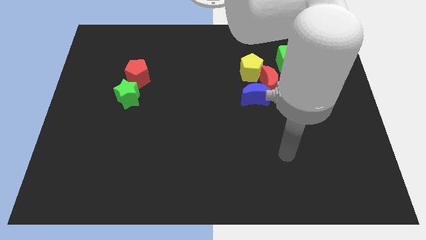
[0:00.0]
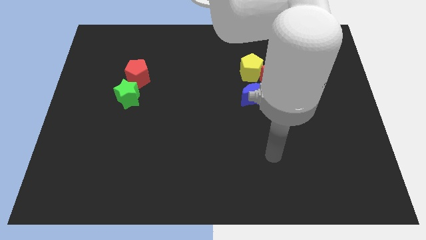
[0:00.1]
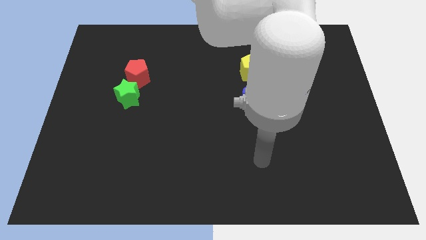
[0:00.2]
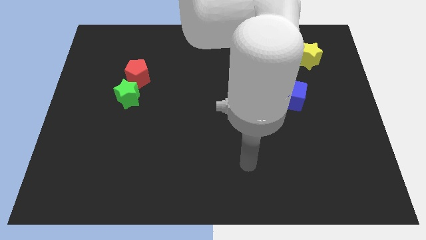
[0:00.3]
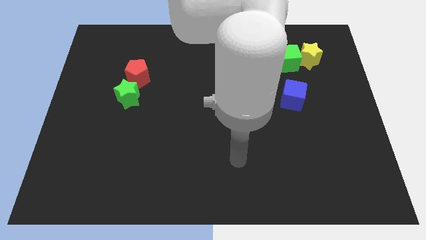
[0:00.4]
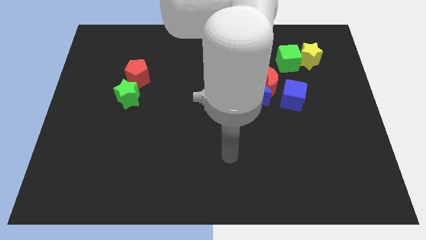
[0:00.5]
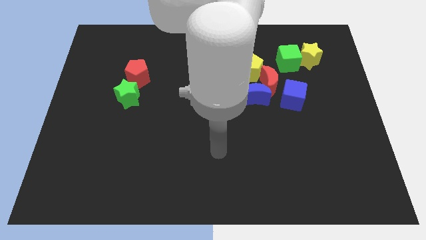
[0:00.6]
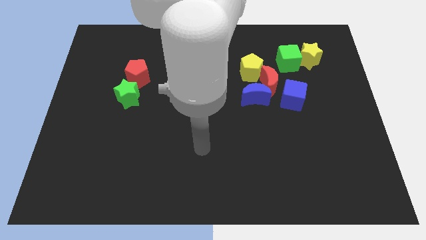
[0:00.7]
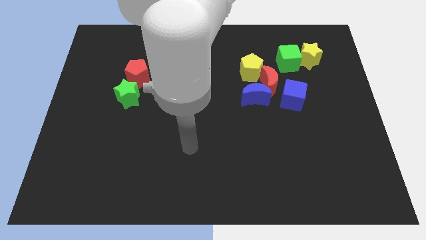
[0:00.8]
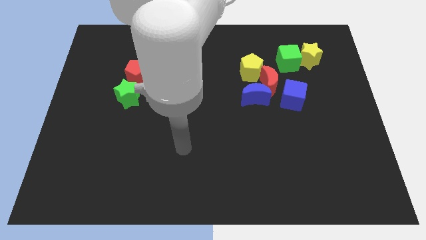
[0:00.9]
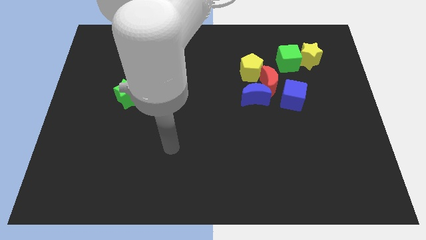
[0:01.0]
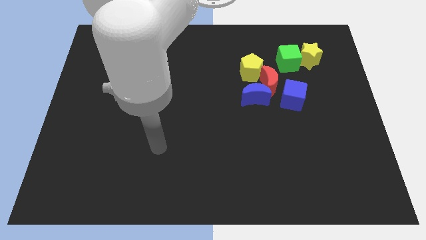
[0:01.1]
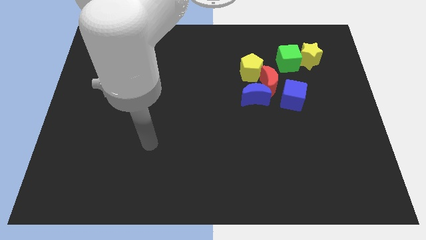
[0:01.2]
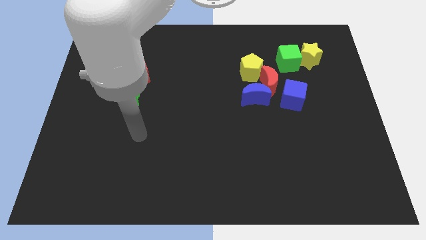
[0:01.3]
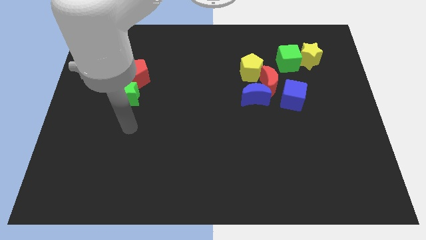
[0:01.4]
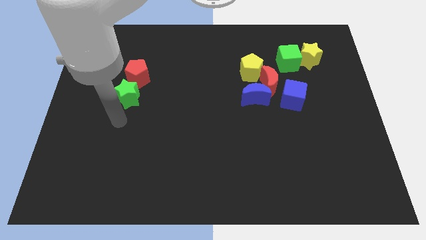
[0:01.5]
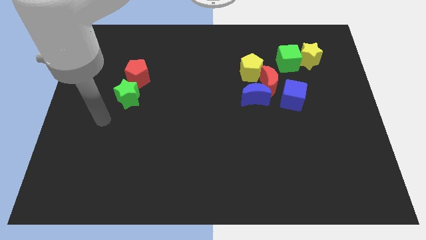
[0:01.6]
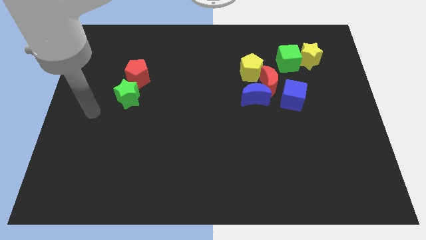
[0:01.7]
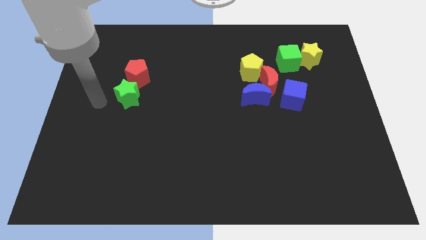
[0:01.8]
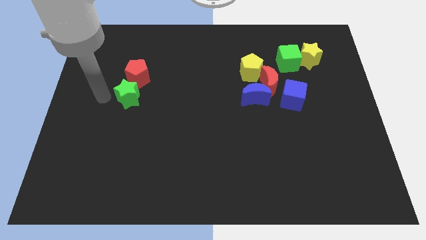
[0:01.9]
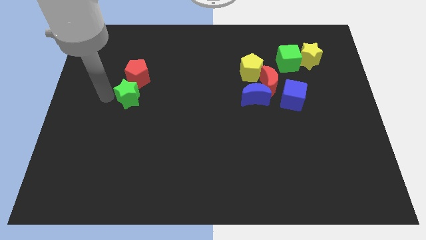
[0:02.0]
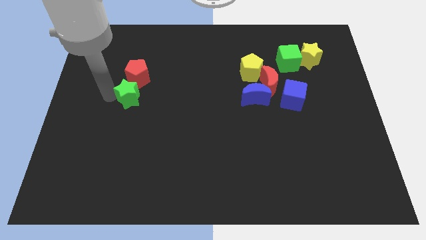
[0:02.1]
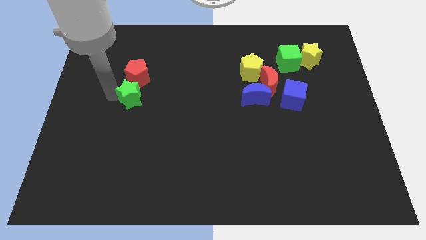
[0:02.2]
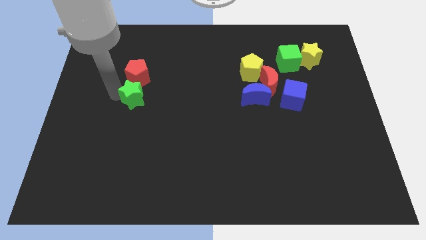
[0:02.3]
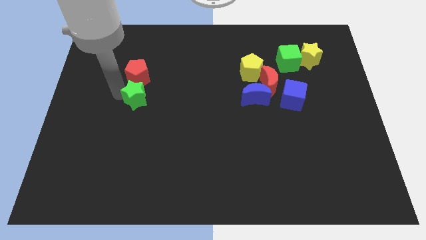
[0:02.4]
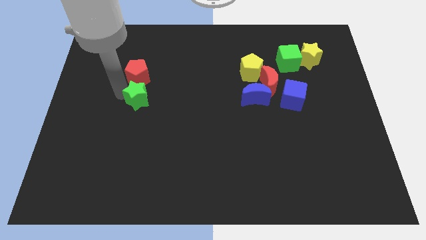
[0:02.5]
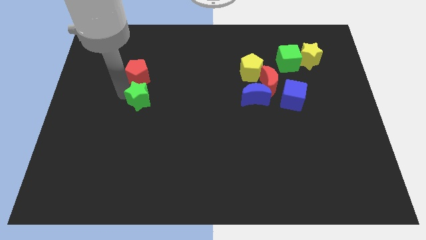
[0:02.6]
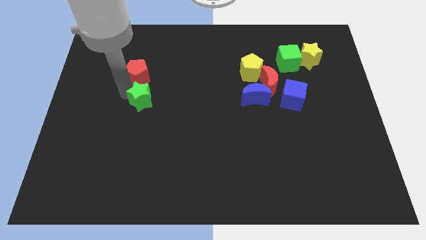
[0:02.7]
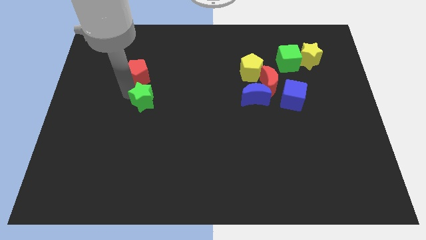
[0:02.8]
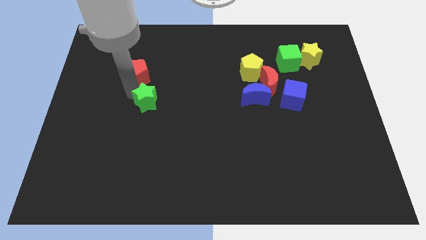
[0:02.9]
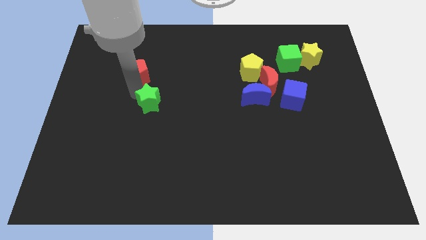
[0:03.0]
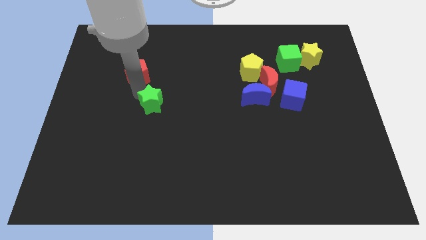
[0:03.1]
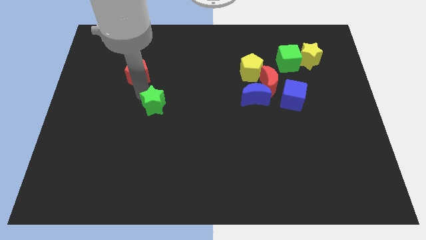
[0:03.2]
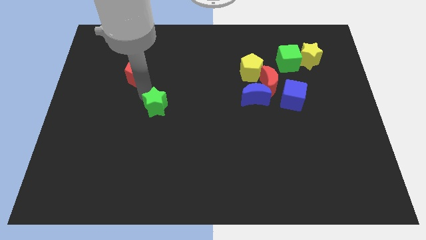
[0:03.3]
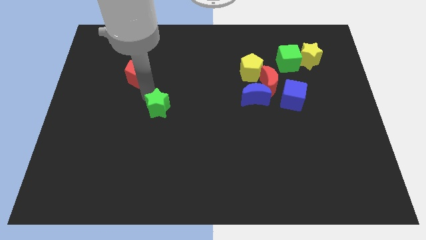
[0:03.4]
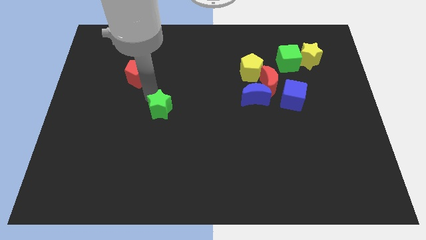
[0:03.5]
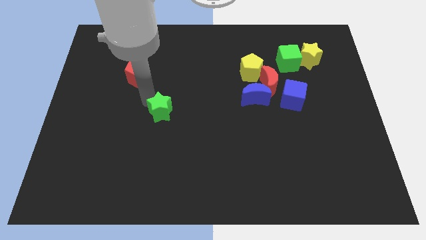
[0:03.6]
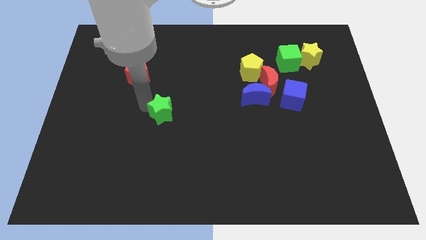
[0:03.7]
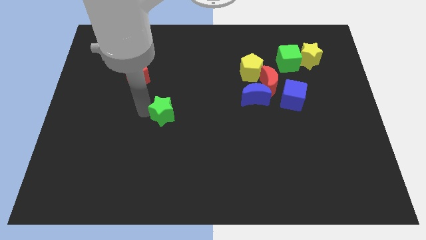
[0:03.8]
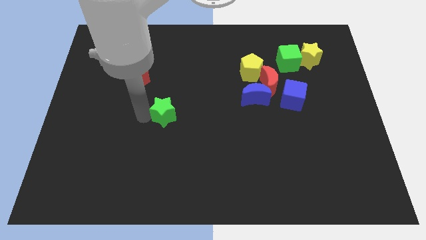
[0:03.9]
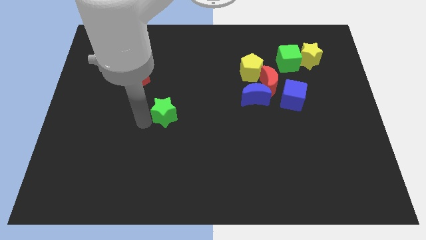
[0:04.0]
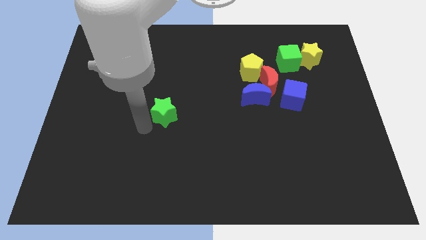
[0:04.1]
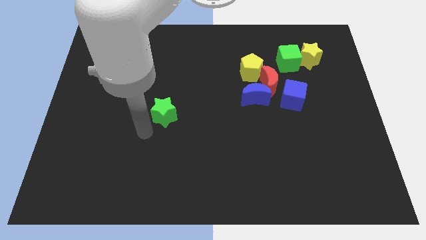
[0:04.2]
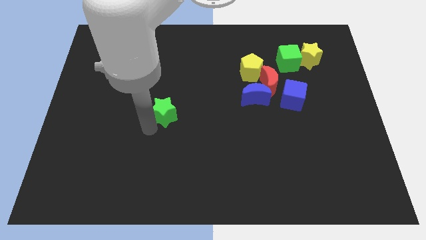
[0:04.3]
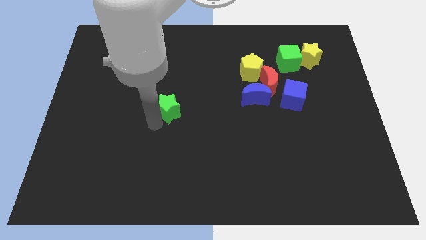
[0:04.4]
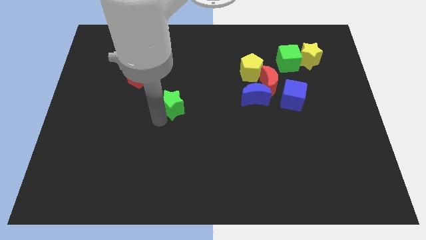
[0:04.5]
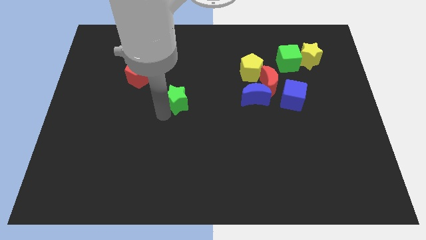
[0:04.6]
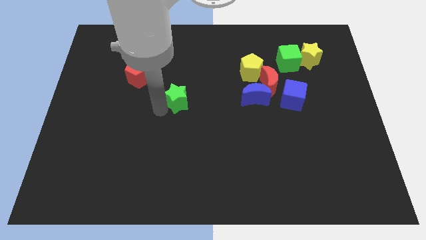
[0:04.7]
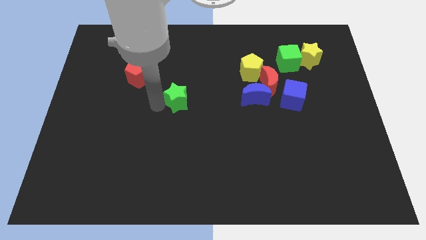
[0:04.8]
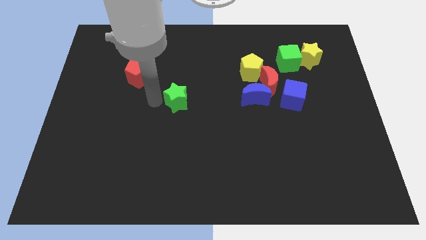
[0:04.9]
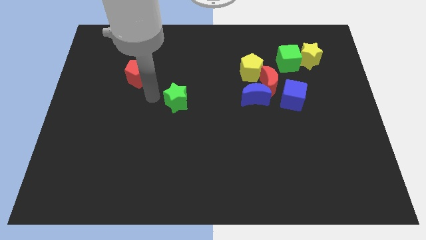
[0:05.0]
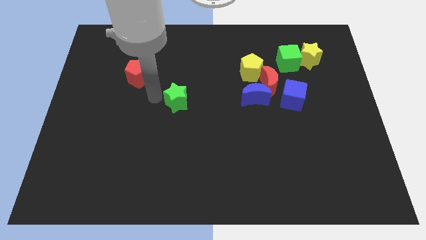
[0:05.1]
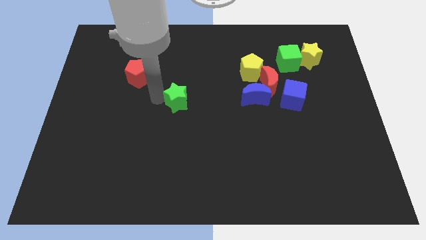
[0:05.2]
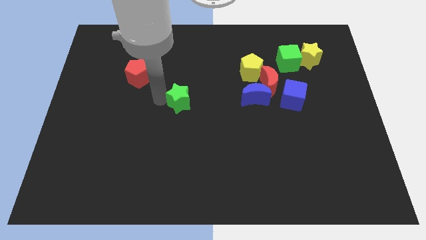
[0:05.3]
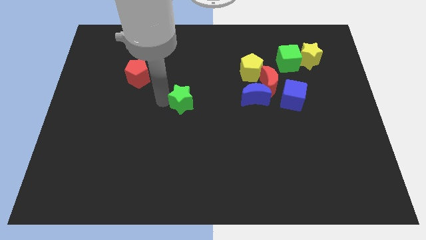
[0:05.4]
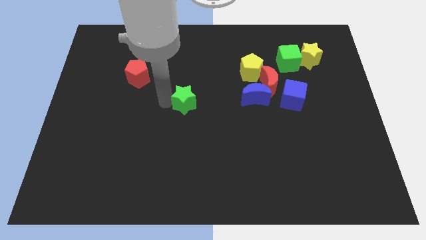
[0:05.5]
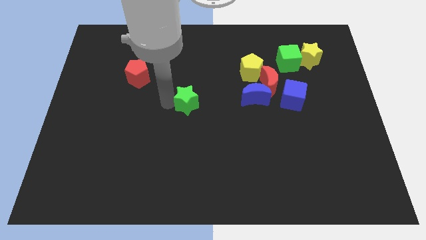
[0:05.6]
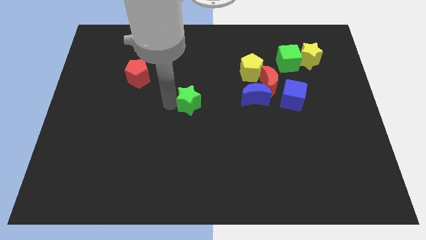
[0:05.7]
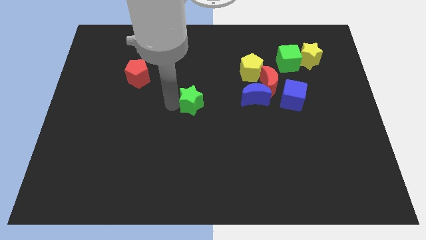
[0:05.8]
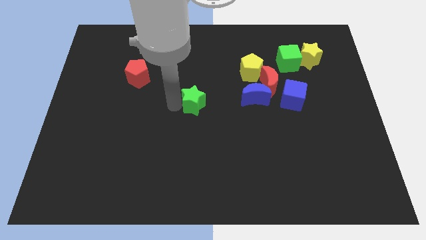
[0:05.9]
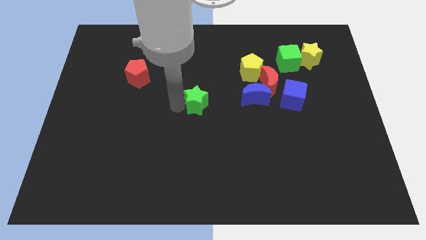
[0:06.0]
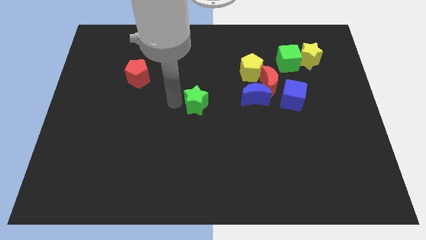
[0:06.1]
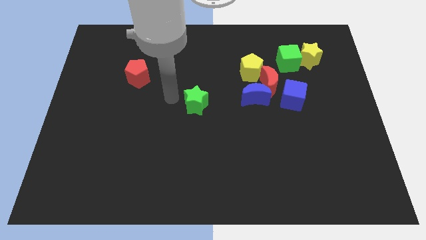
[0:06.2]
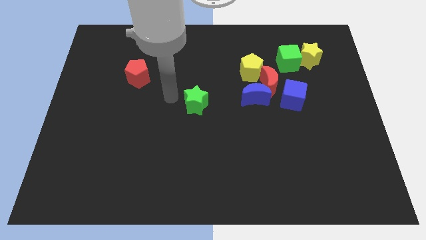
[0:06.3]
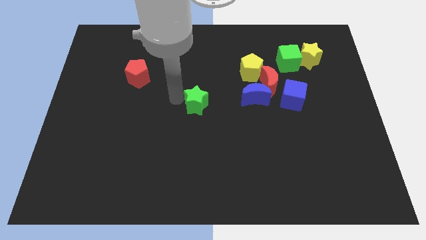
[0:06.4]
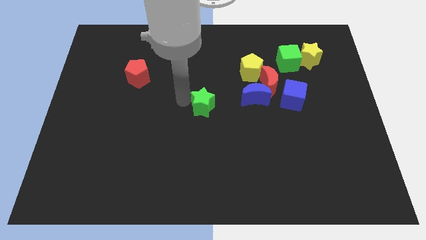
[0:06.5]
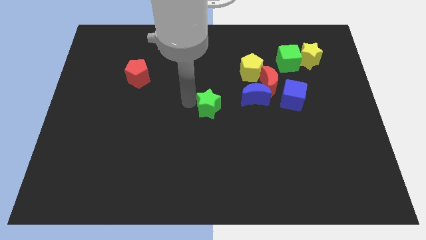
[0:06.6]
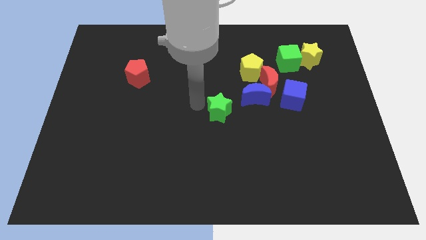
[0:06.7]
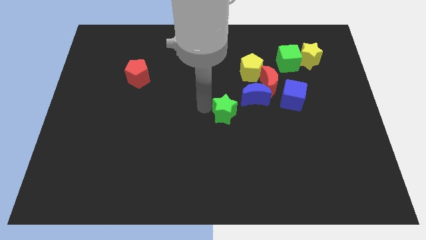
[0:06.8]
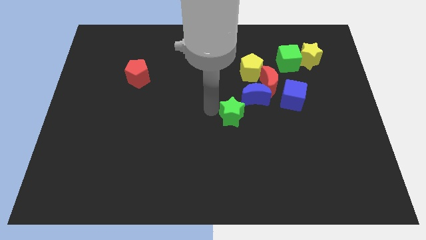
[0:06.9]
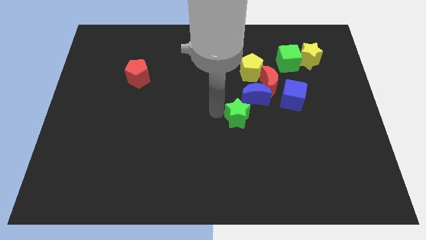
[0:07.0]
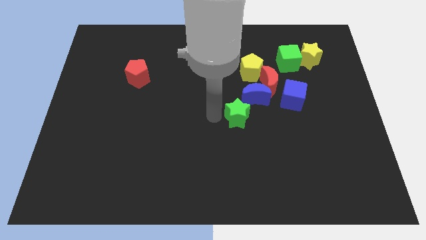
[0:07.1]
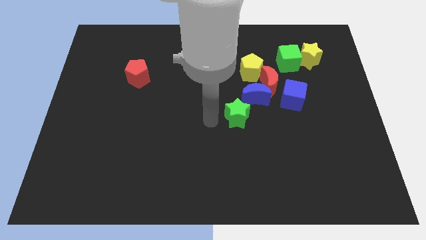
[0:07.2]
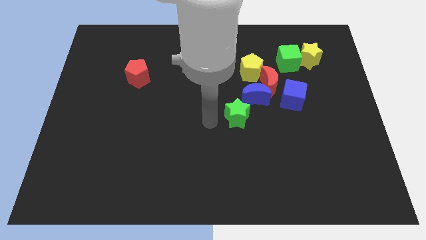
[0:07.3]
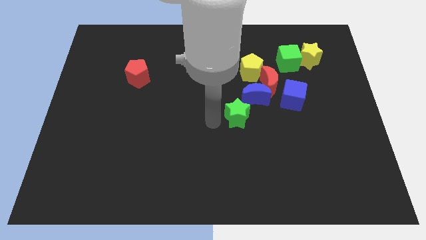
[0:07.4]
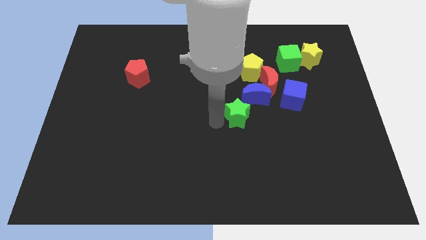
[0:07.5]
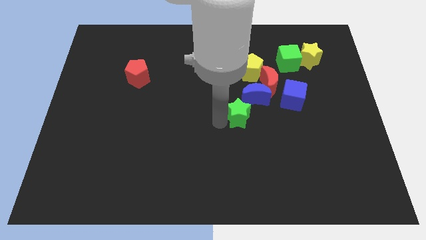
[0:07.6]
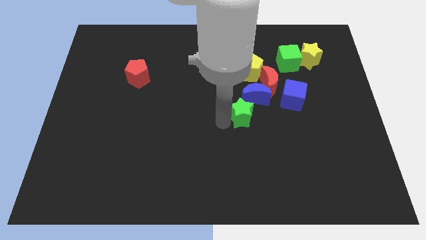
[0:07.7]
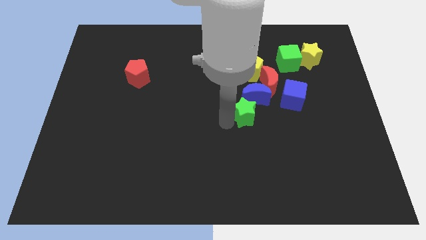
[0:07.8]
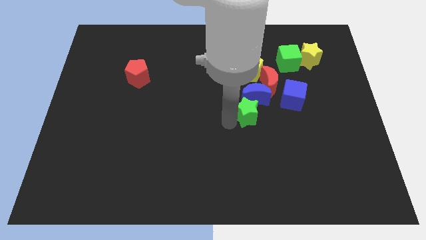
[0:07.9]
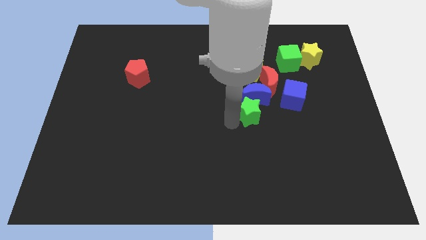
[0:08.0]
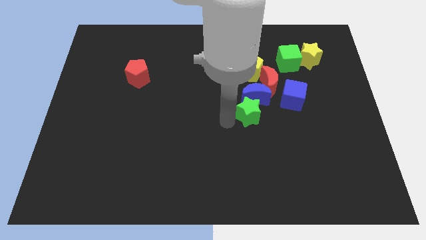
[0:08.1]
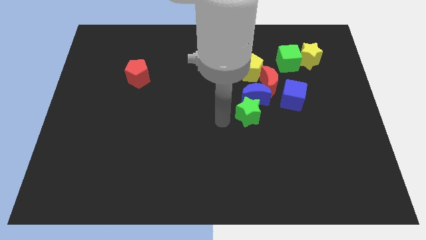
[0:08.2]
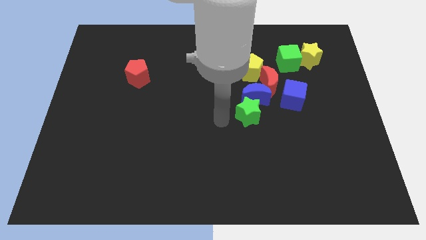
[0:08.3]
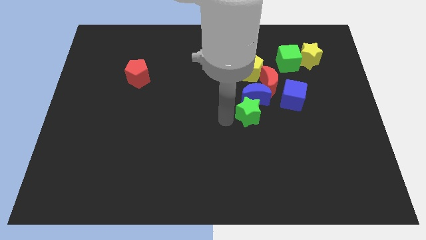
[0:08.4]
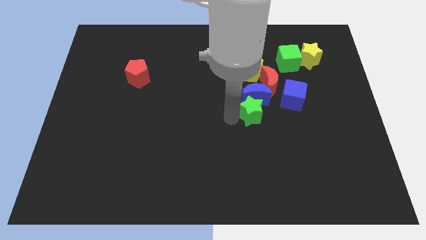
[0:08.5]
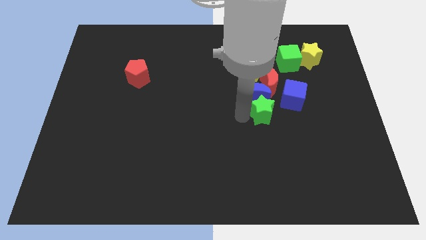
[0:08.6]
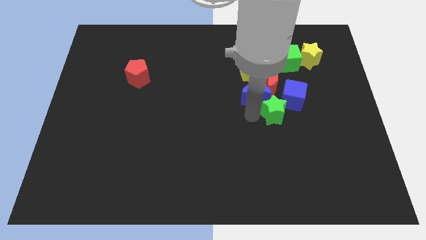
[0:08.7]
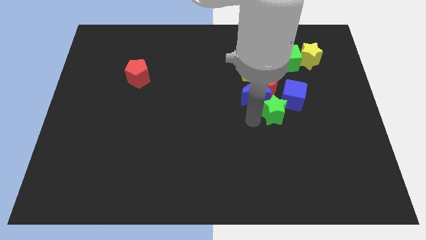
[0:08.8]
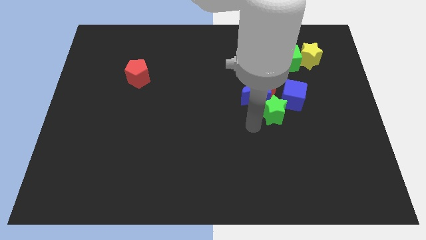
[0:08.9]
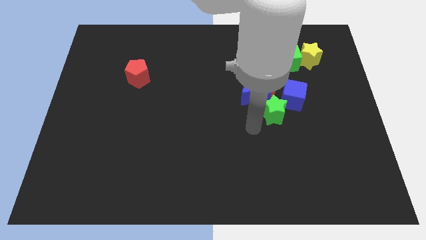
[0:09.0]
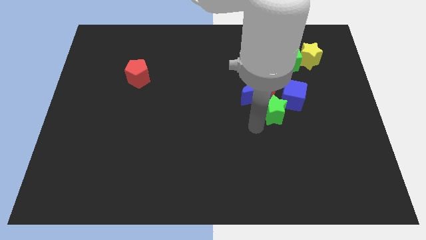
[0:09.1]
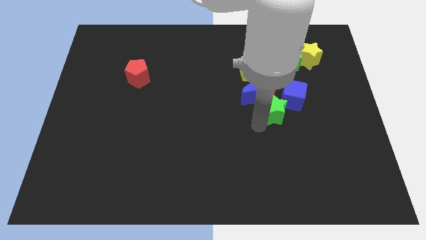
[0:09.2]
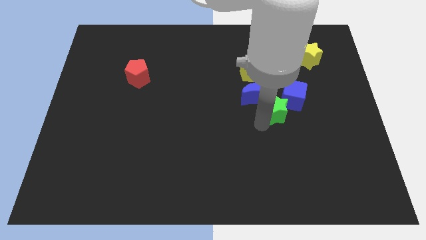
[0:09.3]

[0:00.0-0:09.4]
put the green star to the blue cube
